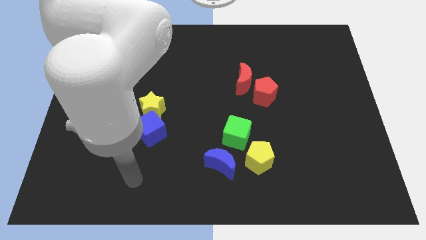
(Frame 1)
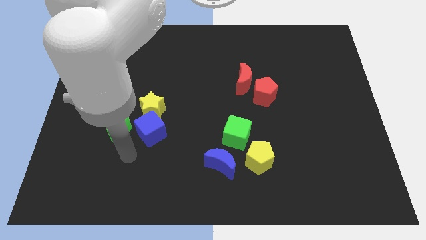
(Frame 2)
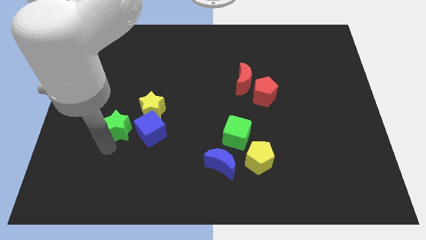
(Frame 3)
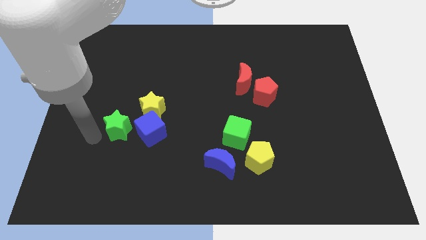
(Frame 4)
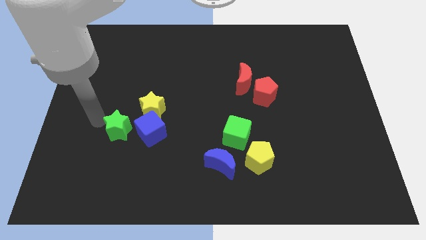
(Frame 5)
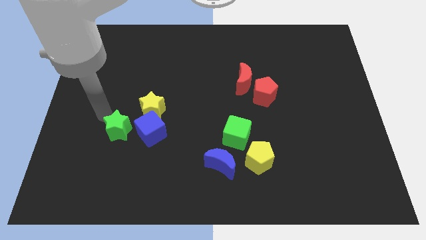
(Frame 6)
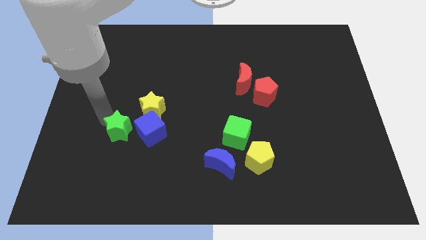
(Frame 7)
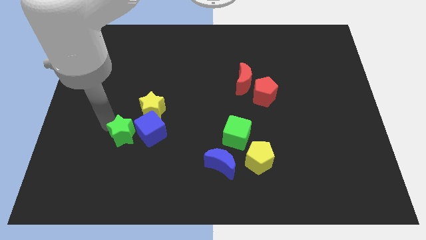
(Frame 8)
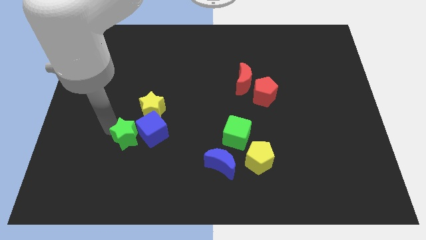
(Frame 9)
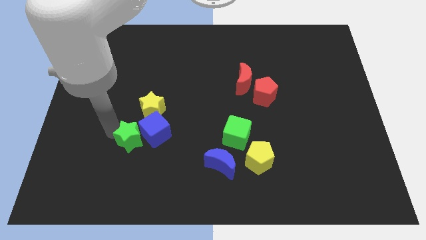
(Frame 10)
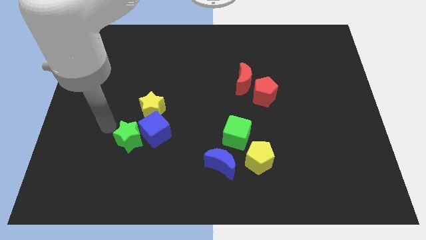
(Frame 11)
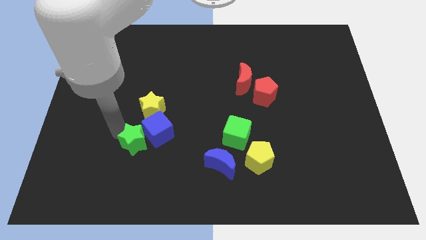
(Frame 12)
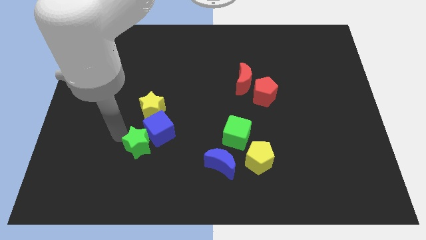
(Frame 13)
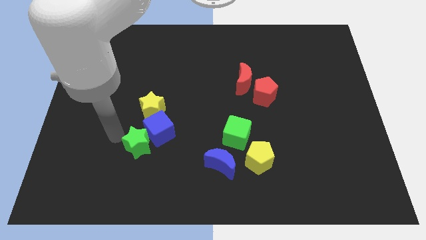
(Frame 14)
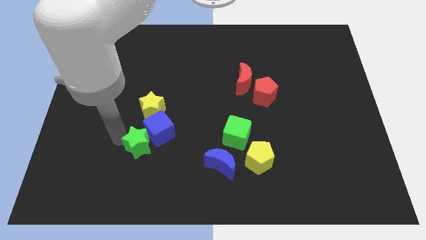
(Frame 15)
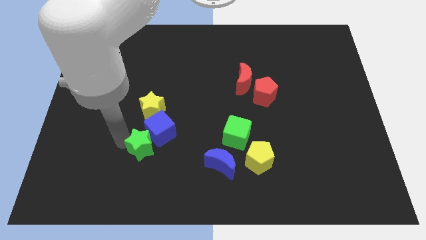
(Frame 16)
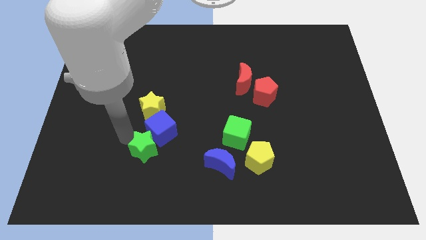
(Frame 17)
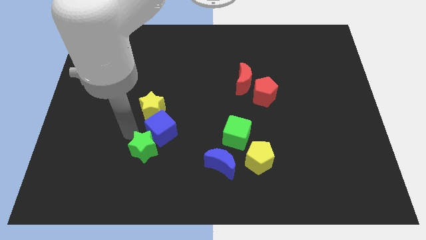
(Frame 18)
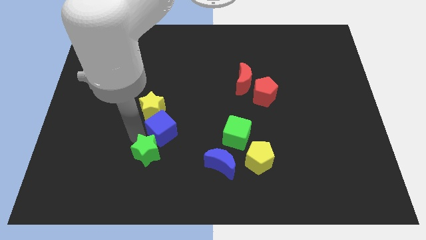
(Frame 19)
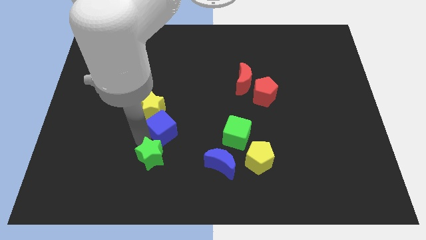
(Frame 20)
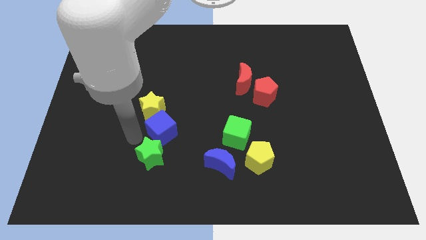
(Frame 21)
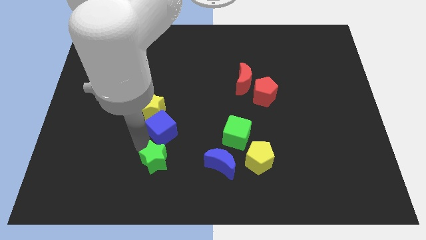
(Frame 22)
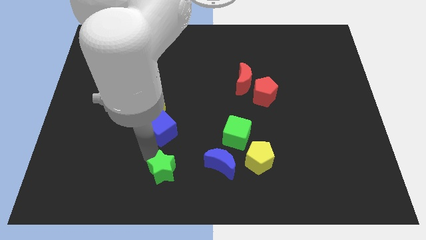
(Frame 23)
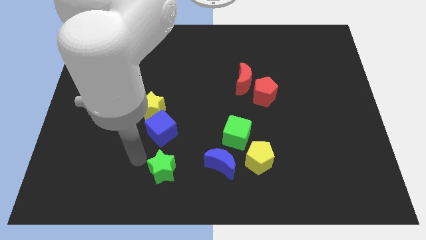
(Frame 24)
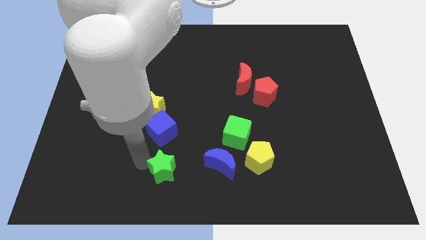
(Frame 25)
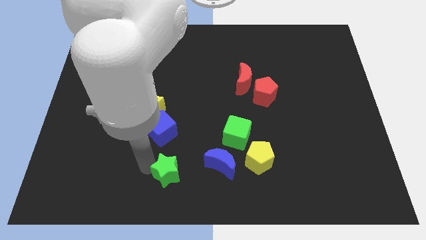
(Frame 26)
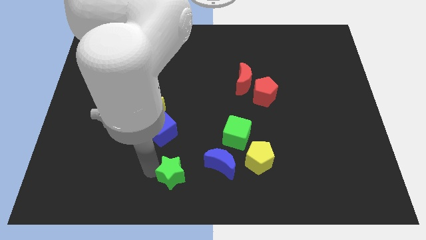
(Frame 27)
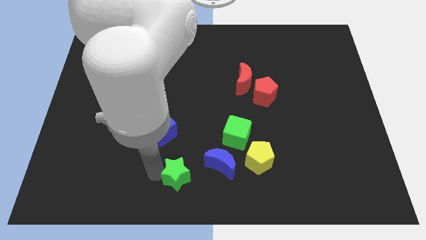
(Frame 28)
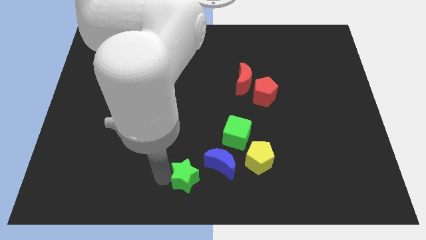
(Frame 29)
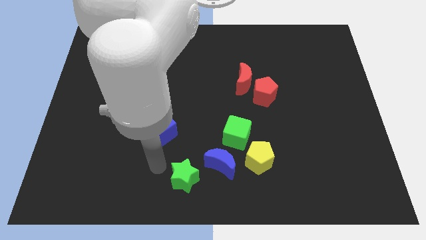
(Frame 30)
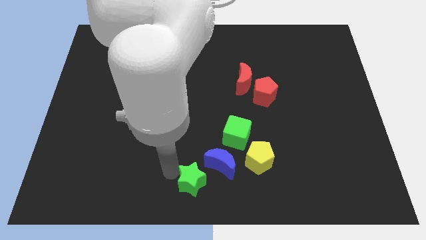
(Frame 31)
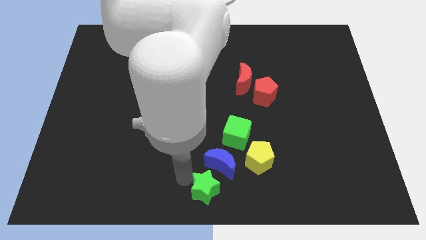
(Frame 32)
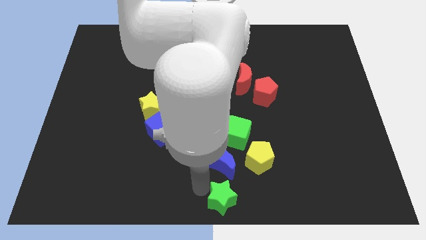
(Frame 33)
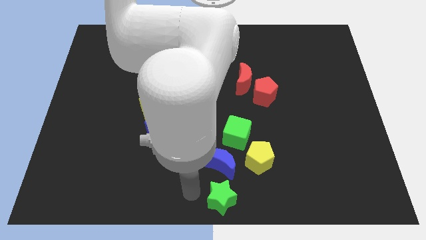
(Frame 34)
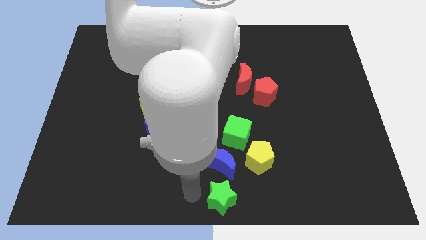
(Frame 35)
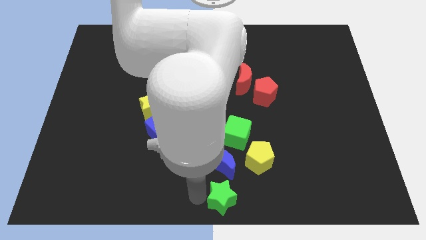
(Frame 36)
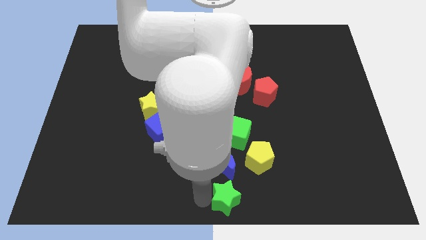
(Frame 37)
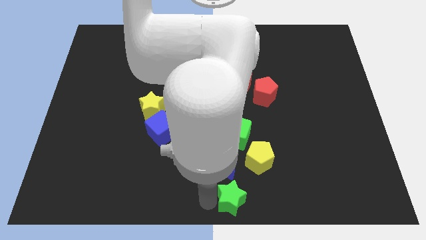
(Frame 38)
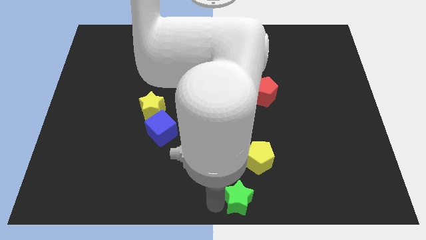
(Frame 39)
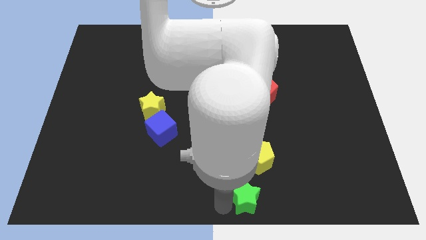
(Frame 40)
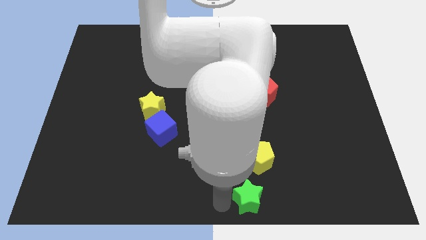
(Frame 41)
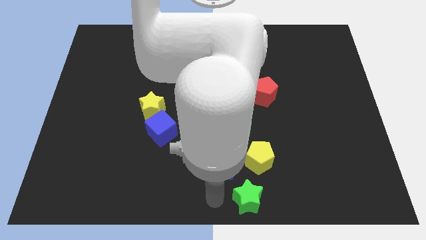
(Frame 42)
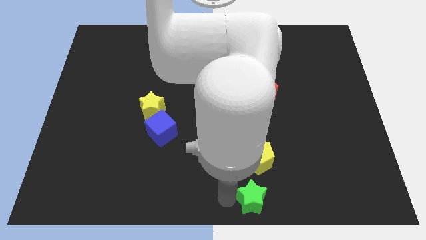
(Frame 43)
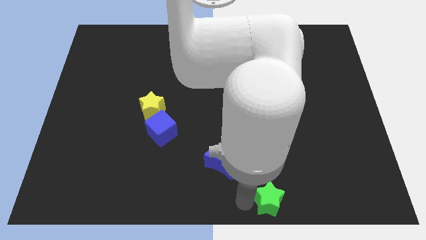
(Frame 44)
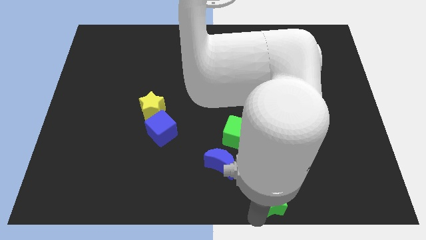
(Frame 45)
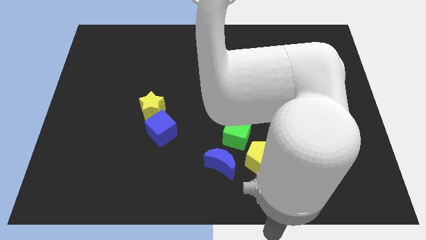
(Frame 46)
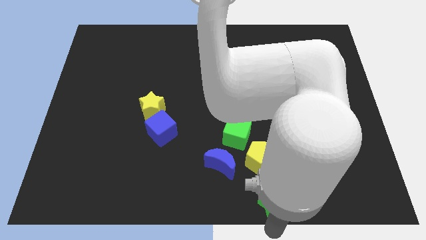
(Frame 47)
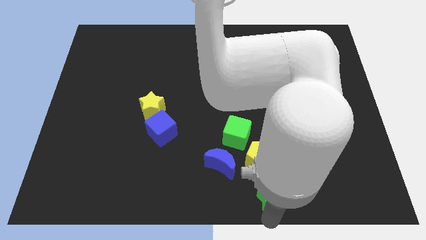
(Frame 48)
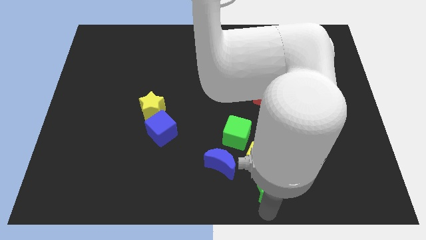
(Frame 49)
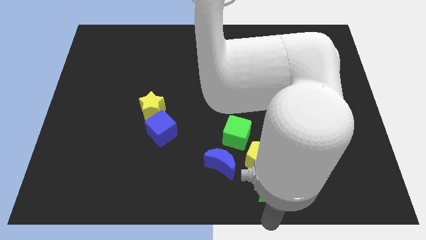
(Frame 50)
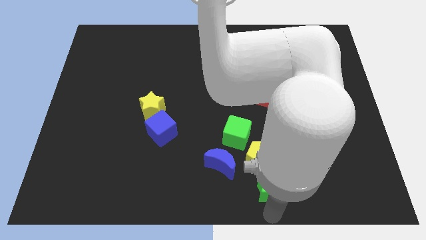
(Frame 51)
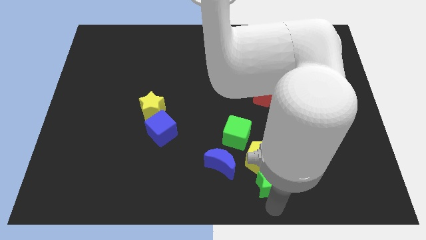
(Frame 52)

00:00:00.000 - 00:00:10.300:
move the green star right of the blue moon

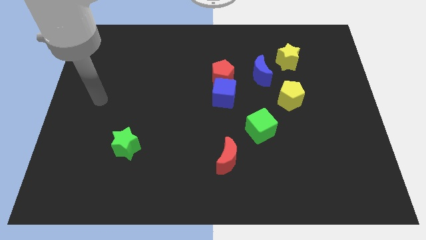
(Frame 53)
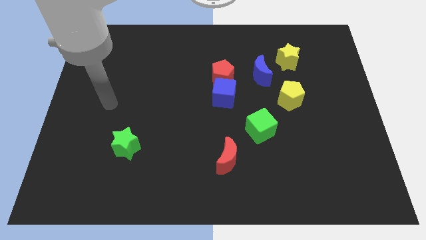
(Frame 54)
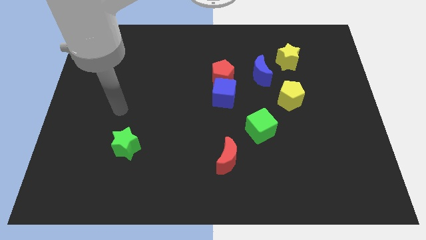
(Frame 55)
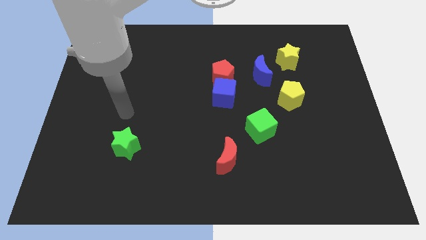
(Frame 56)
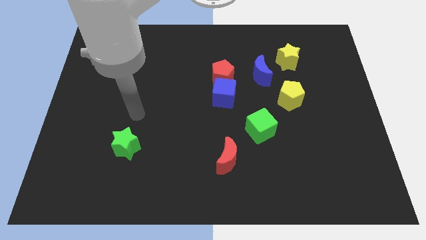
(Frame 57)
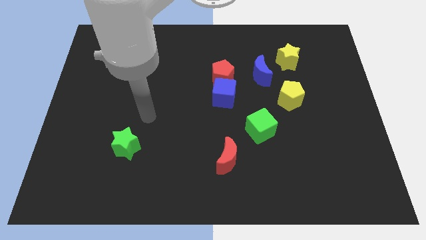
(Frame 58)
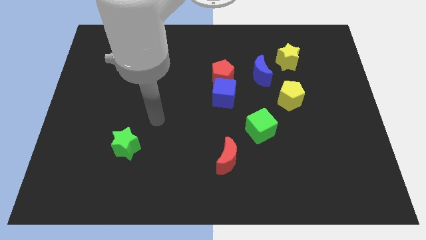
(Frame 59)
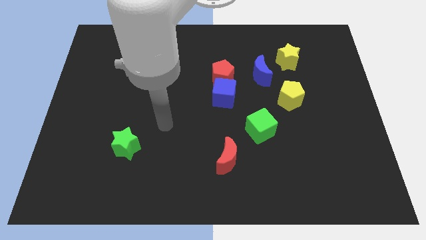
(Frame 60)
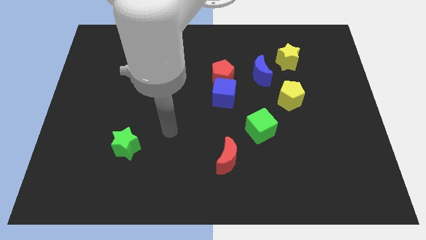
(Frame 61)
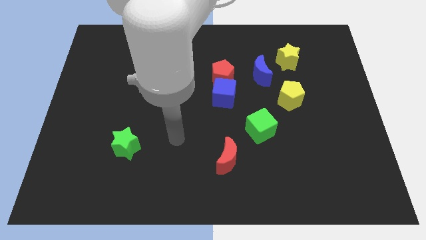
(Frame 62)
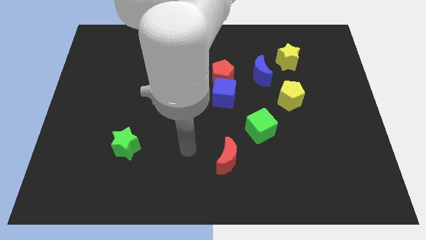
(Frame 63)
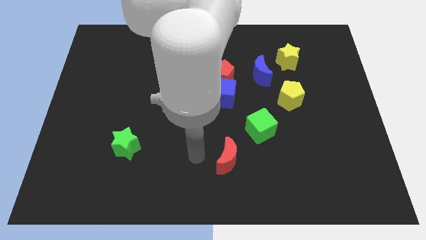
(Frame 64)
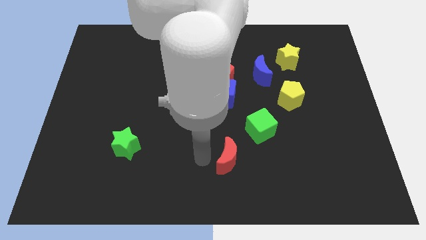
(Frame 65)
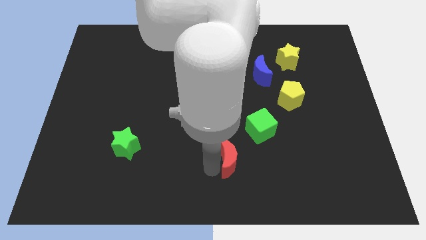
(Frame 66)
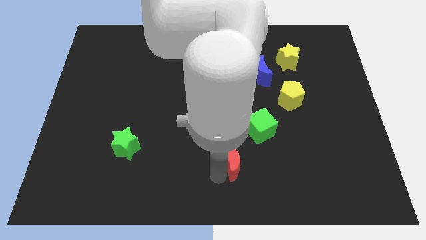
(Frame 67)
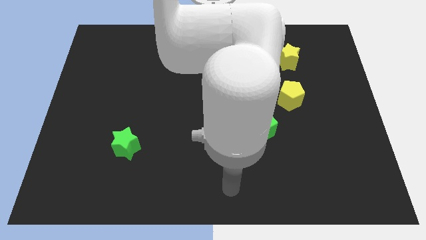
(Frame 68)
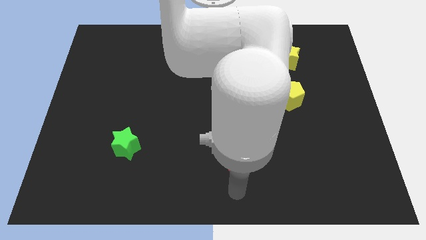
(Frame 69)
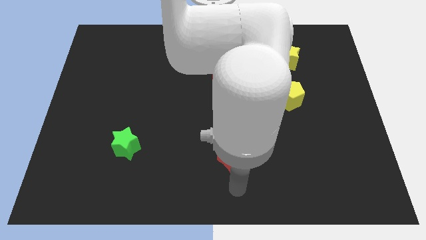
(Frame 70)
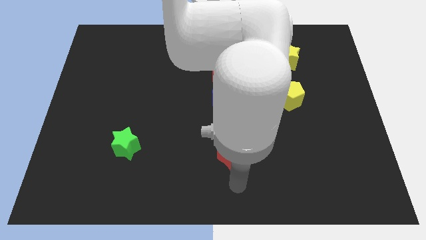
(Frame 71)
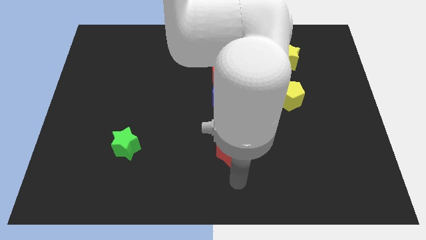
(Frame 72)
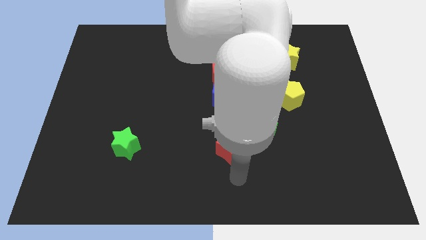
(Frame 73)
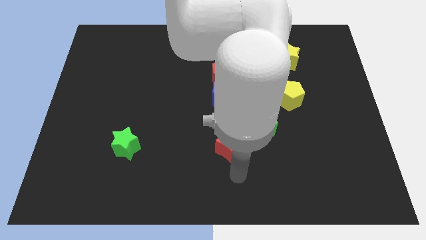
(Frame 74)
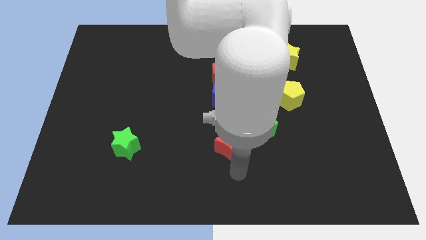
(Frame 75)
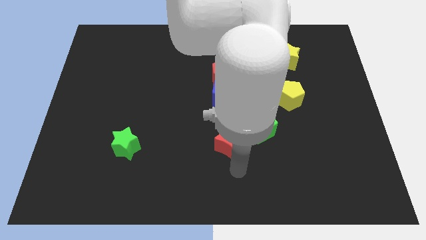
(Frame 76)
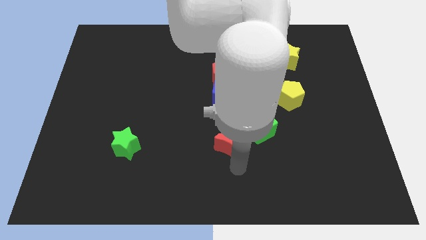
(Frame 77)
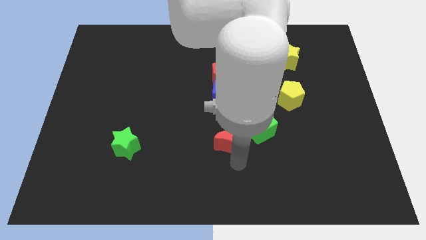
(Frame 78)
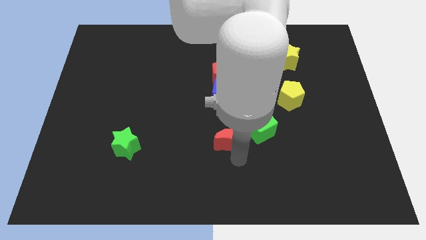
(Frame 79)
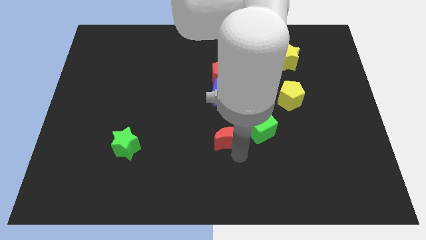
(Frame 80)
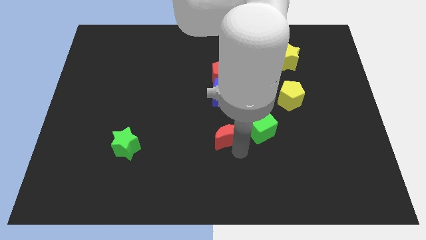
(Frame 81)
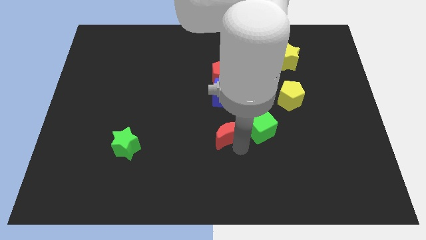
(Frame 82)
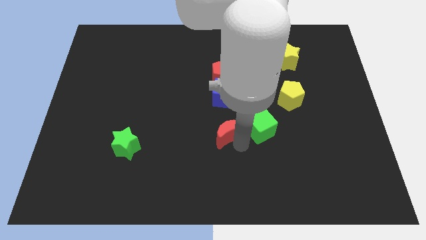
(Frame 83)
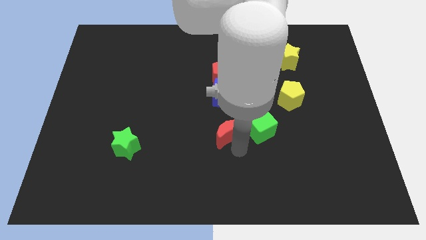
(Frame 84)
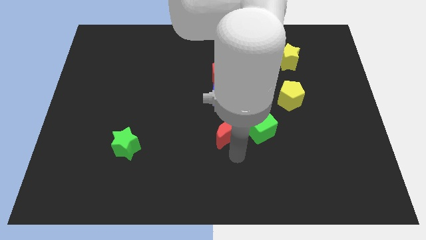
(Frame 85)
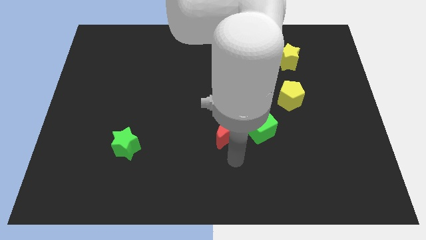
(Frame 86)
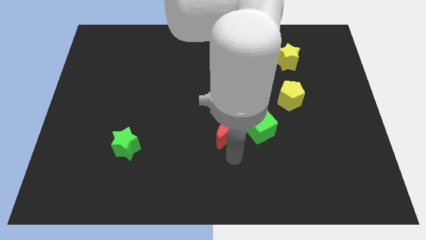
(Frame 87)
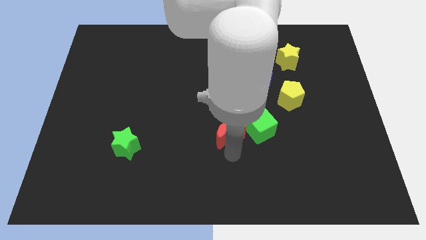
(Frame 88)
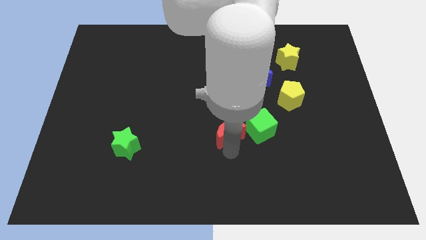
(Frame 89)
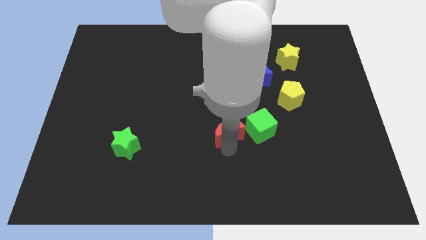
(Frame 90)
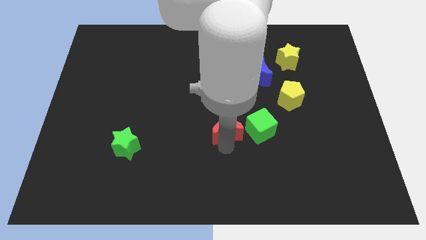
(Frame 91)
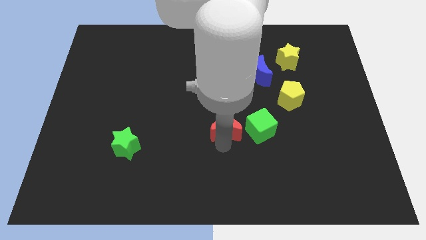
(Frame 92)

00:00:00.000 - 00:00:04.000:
put the red moon below the red pentagon
